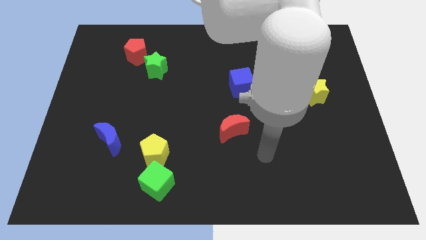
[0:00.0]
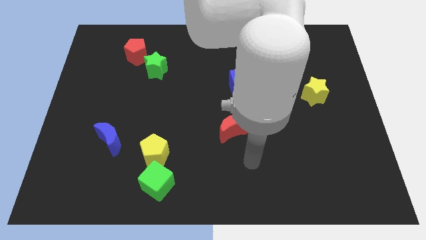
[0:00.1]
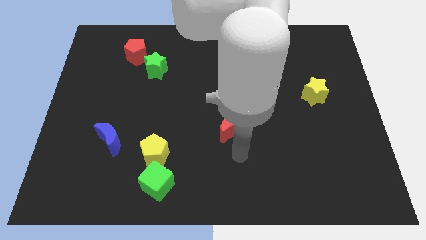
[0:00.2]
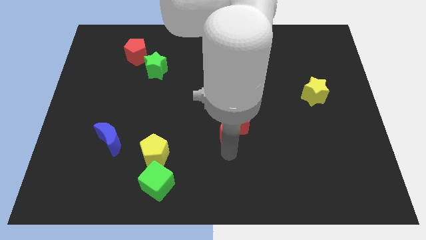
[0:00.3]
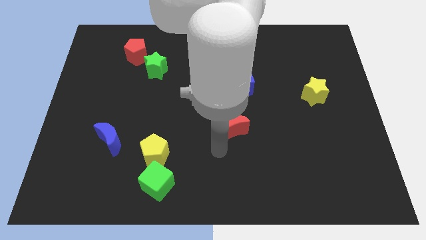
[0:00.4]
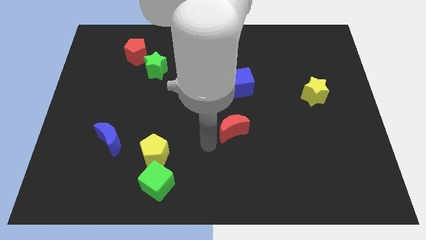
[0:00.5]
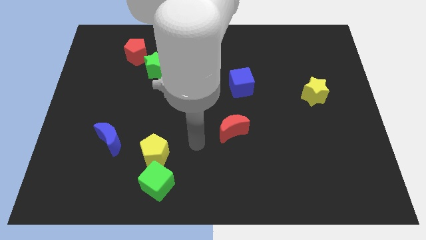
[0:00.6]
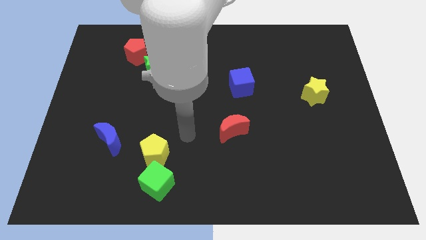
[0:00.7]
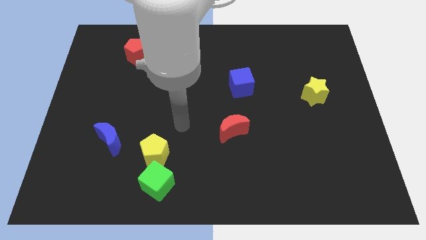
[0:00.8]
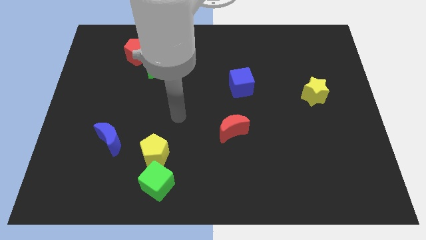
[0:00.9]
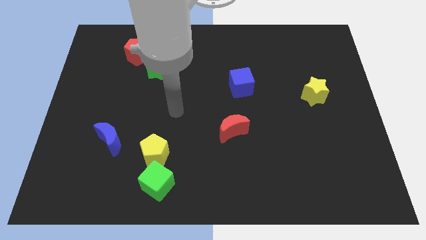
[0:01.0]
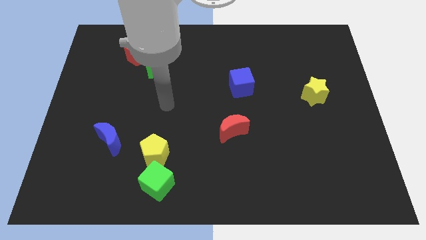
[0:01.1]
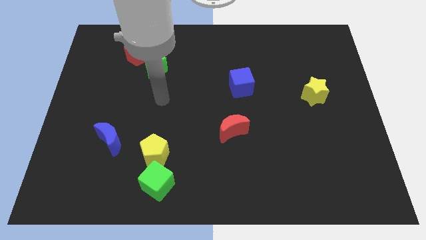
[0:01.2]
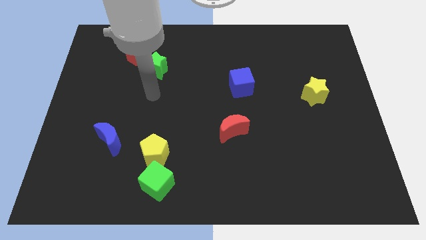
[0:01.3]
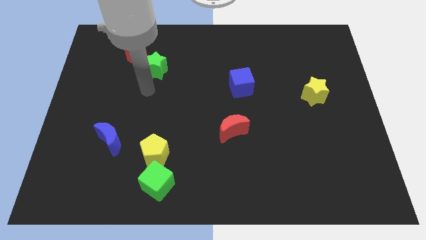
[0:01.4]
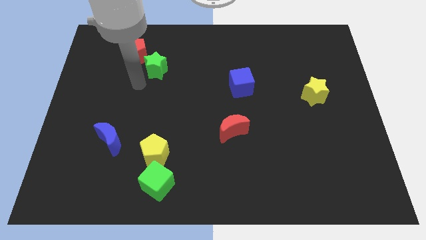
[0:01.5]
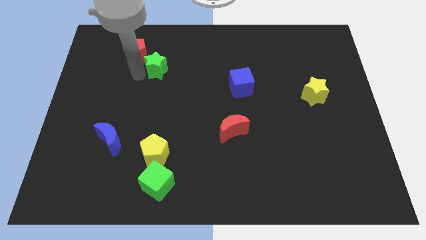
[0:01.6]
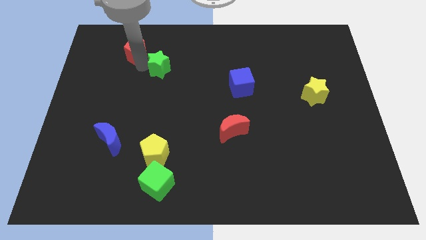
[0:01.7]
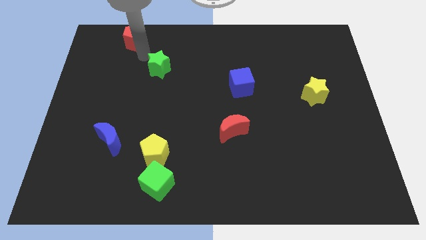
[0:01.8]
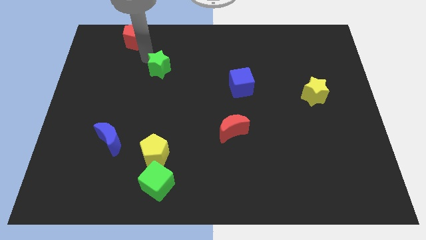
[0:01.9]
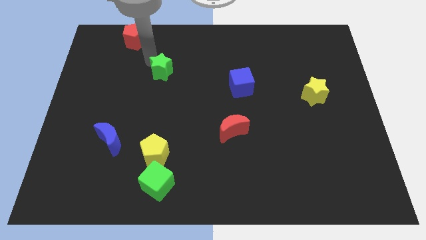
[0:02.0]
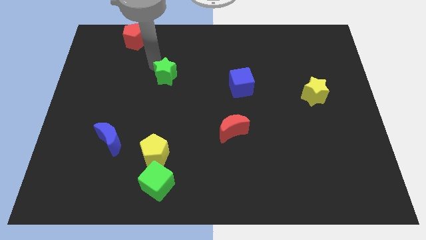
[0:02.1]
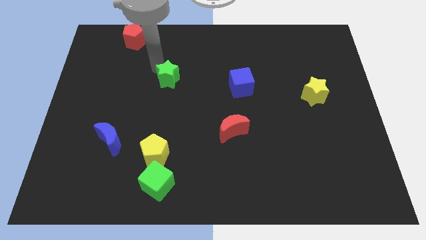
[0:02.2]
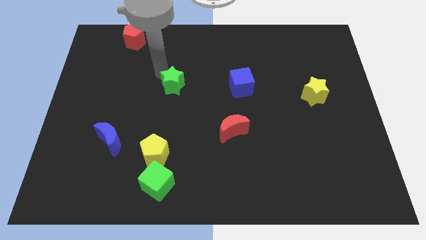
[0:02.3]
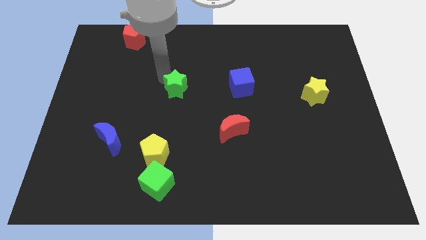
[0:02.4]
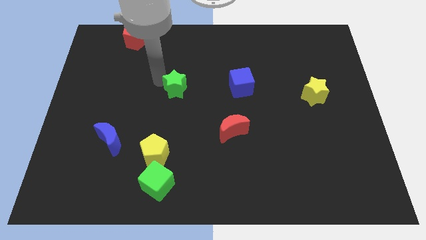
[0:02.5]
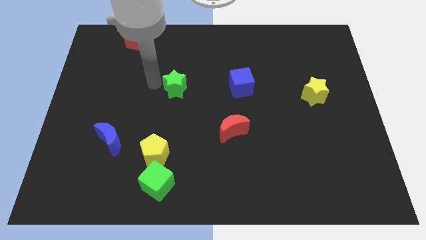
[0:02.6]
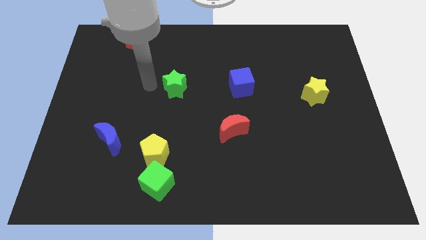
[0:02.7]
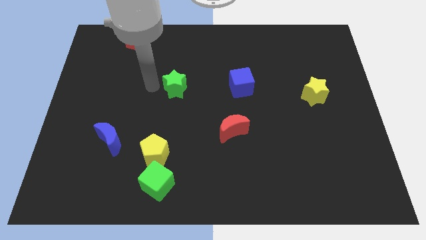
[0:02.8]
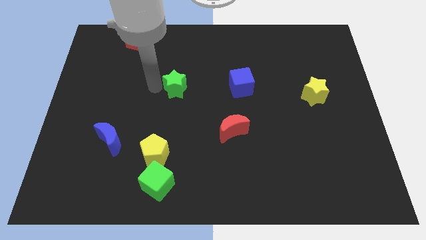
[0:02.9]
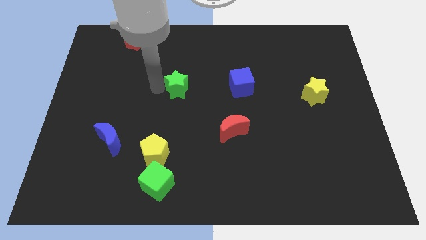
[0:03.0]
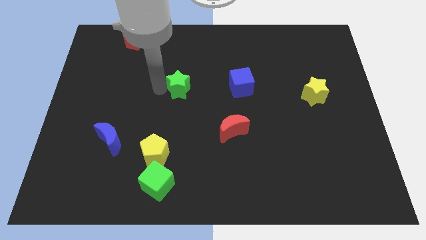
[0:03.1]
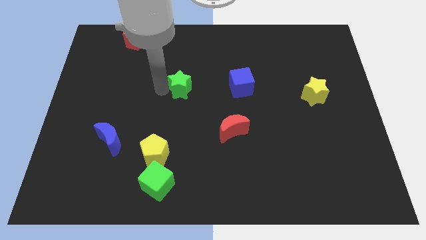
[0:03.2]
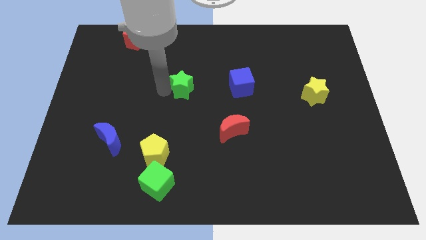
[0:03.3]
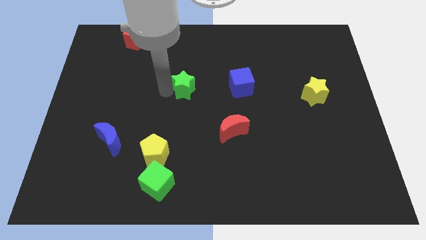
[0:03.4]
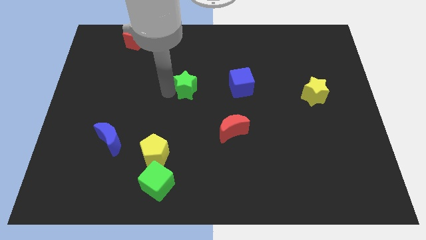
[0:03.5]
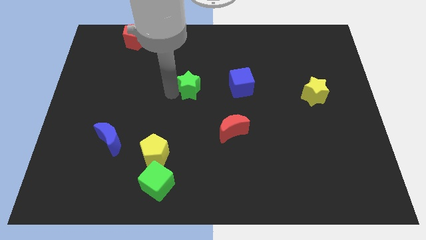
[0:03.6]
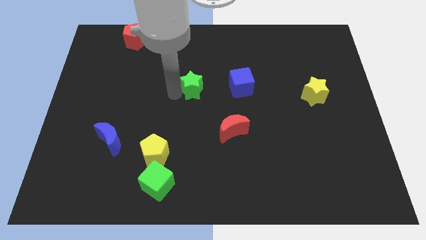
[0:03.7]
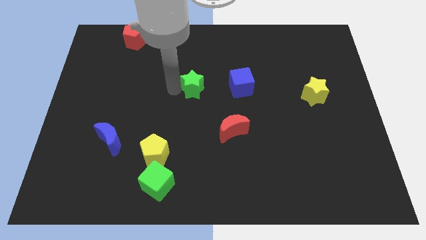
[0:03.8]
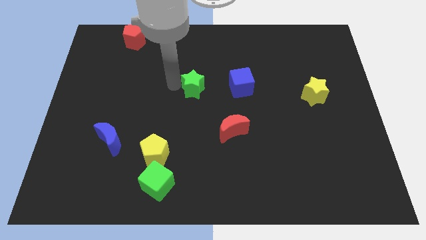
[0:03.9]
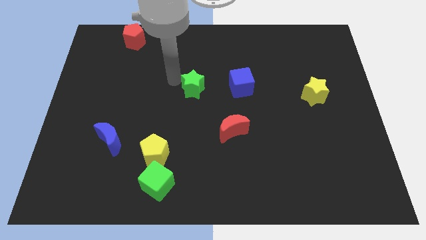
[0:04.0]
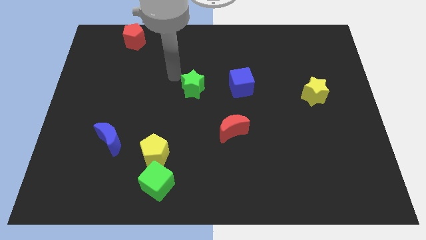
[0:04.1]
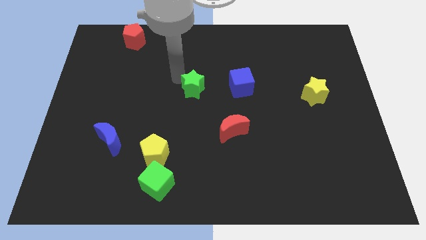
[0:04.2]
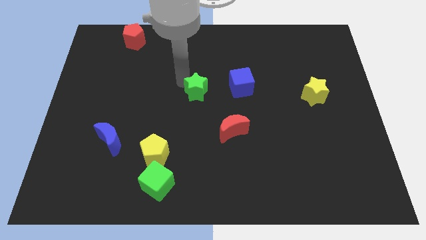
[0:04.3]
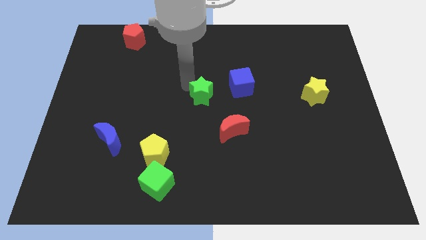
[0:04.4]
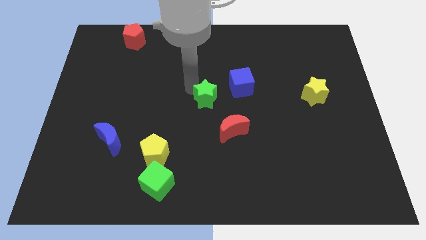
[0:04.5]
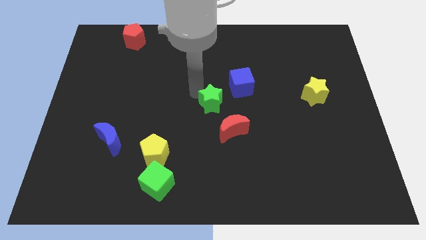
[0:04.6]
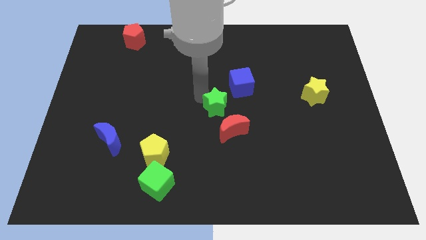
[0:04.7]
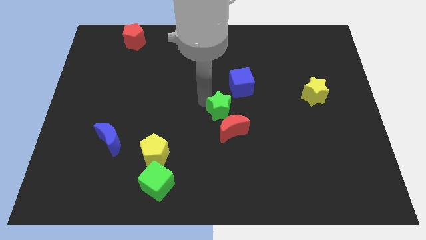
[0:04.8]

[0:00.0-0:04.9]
push the green star downwards and right

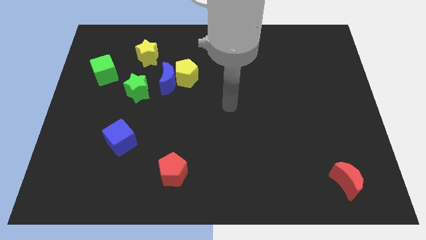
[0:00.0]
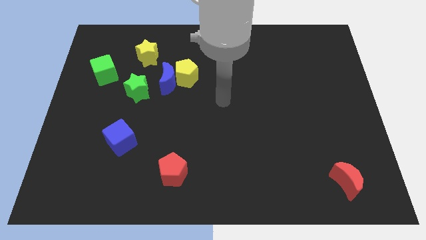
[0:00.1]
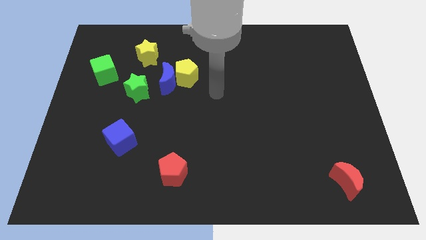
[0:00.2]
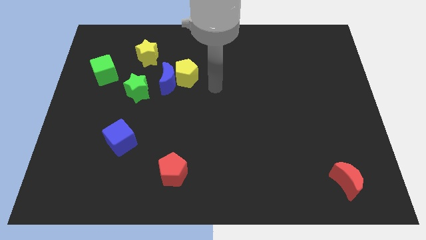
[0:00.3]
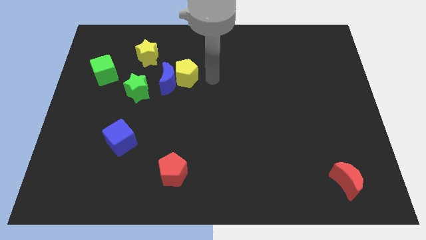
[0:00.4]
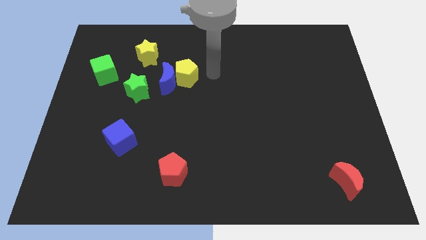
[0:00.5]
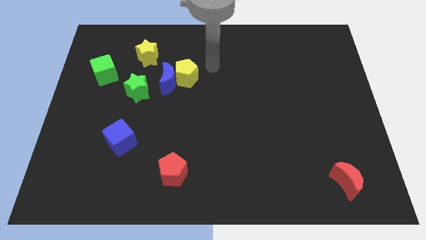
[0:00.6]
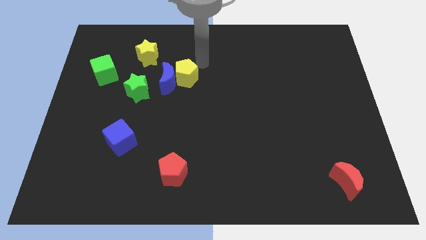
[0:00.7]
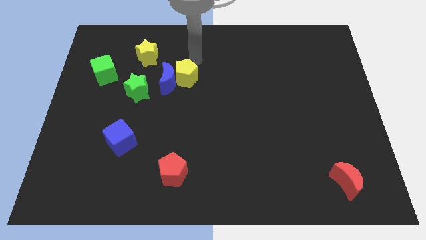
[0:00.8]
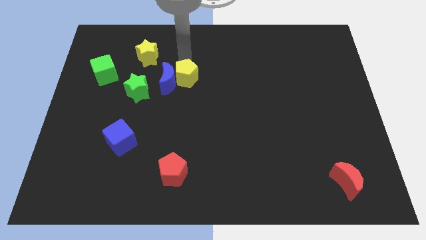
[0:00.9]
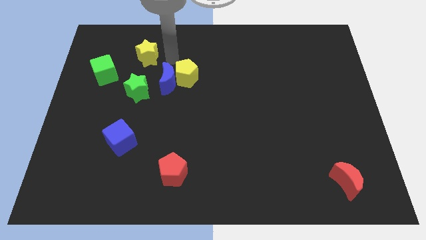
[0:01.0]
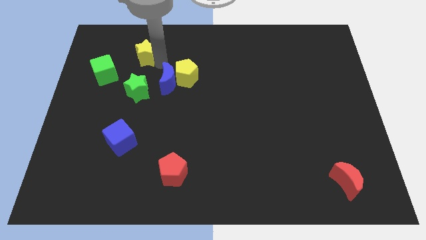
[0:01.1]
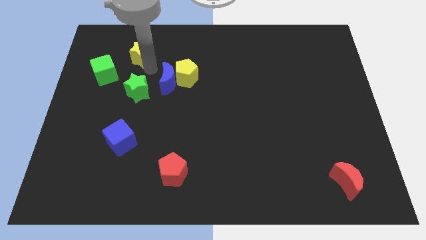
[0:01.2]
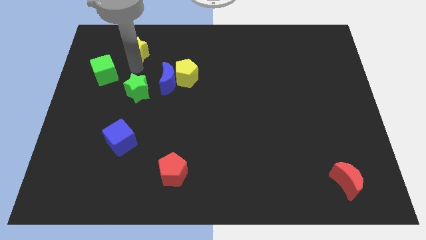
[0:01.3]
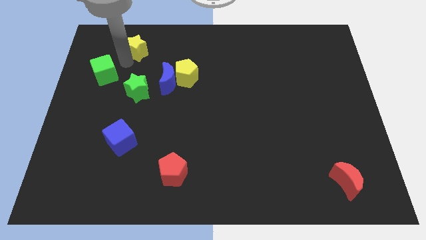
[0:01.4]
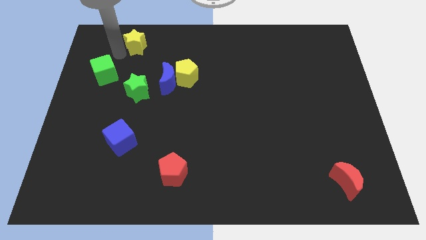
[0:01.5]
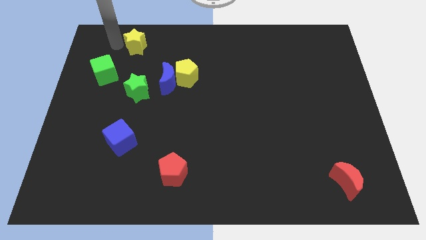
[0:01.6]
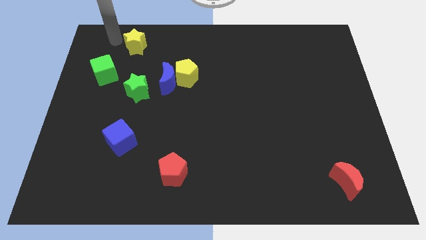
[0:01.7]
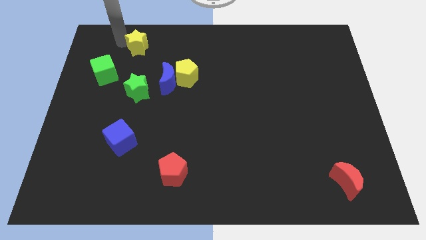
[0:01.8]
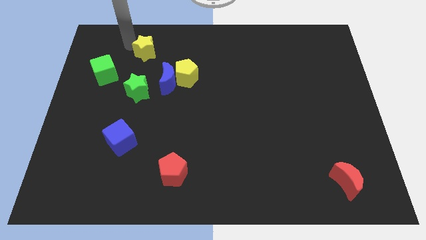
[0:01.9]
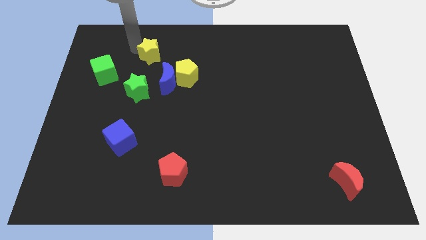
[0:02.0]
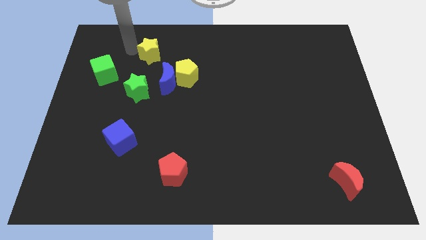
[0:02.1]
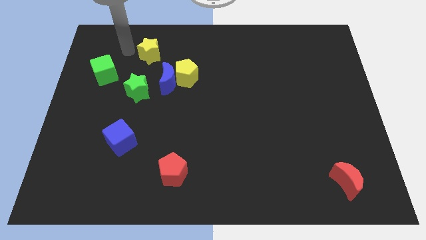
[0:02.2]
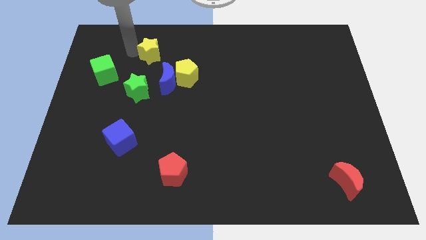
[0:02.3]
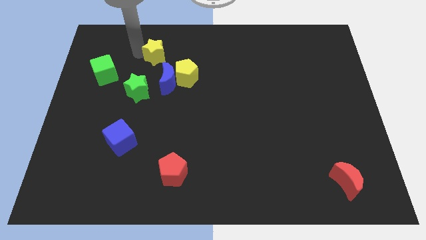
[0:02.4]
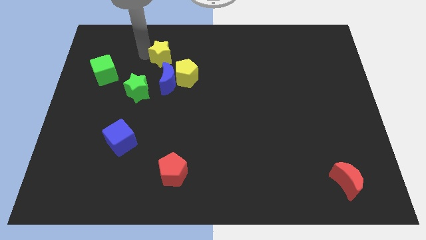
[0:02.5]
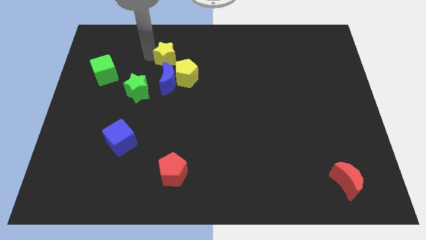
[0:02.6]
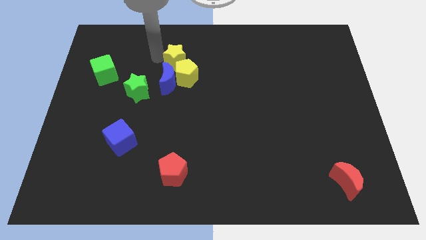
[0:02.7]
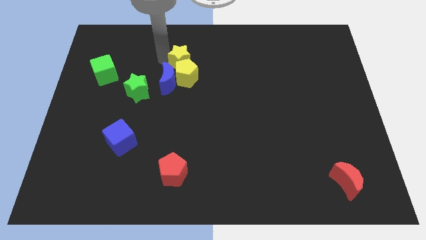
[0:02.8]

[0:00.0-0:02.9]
move the yellow star somewhat downwards and to the right diagonally
